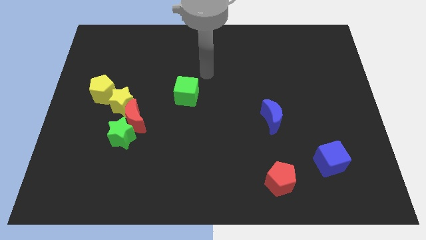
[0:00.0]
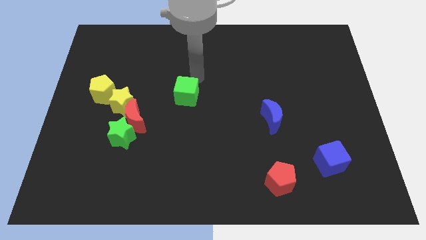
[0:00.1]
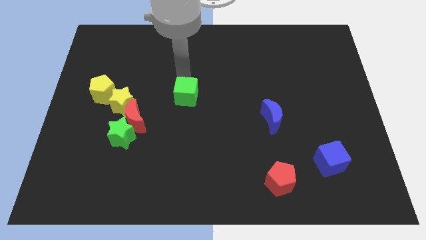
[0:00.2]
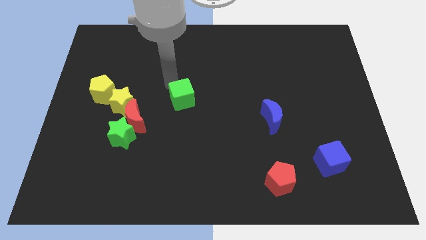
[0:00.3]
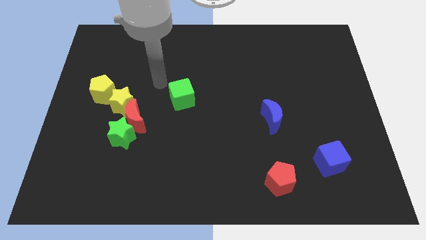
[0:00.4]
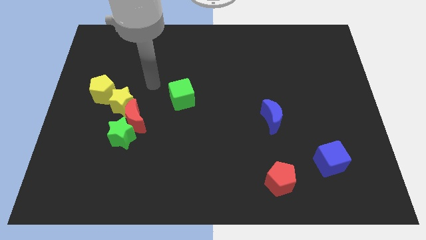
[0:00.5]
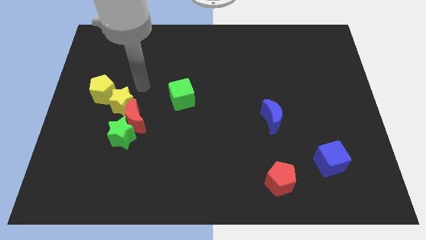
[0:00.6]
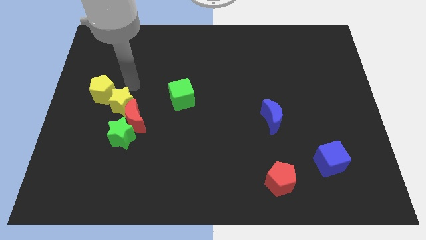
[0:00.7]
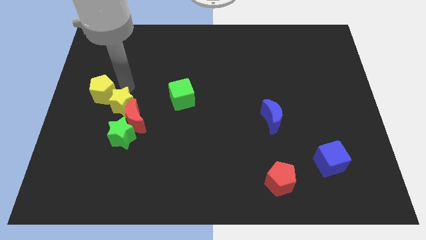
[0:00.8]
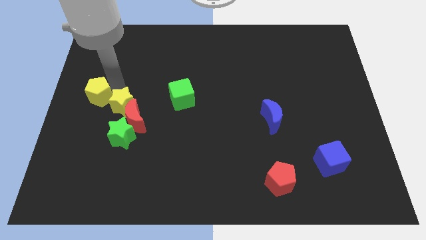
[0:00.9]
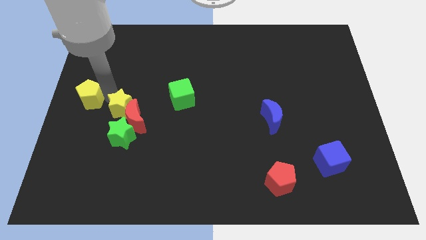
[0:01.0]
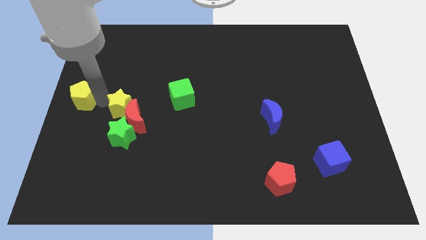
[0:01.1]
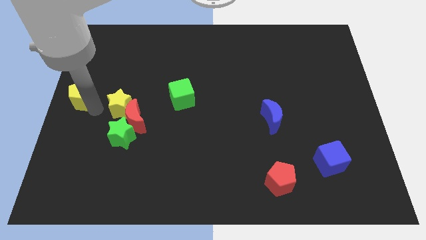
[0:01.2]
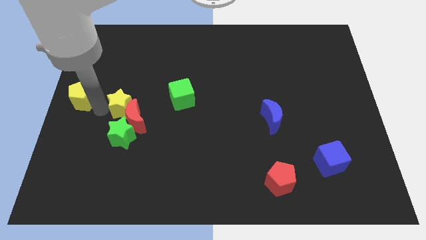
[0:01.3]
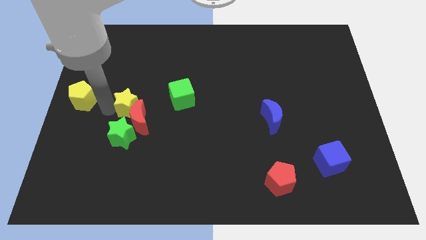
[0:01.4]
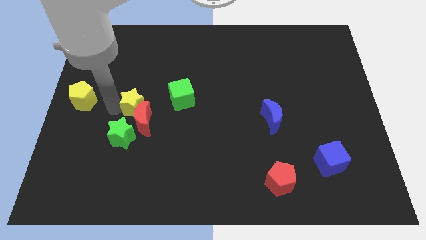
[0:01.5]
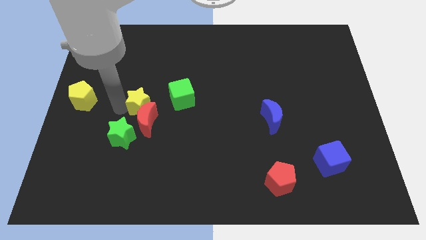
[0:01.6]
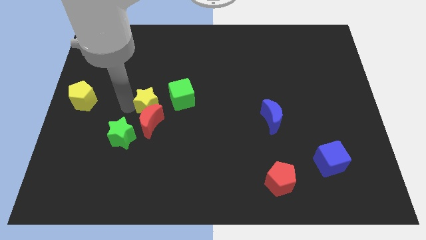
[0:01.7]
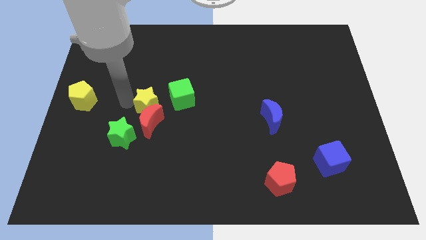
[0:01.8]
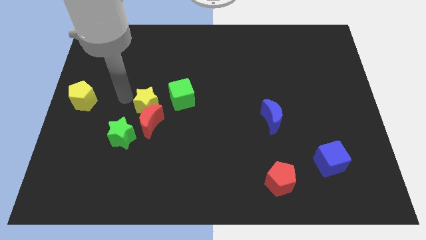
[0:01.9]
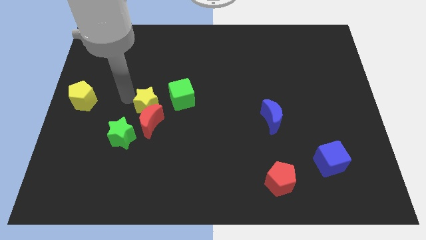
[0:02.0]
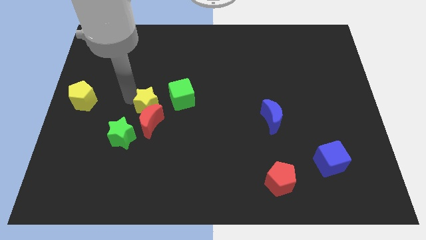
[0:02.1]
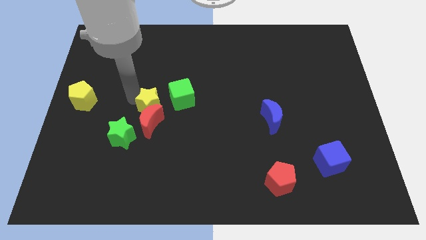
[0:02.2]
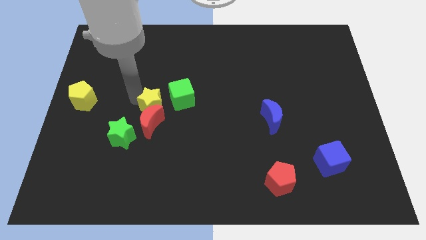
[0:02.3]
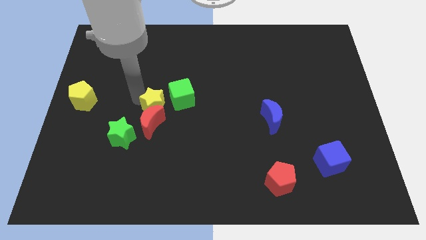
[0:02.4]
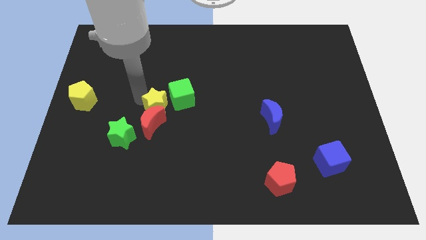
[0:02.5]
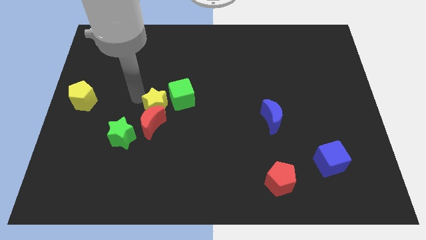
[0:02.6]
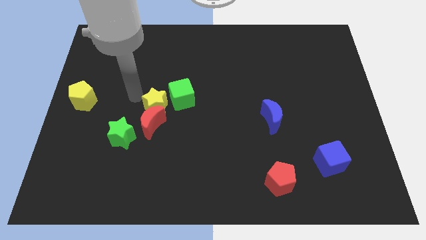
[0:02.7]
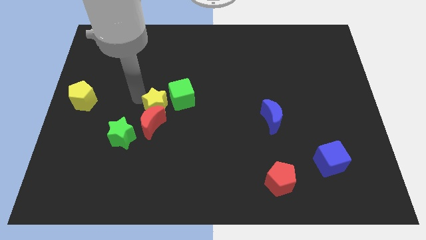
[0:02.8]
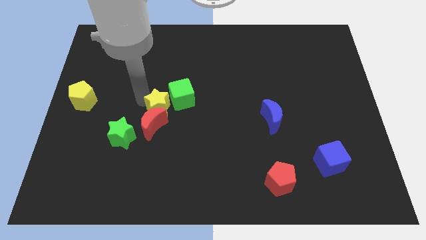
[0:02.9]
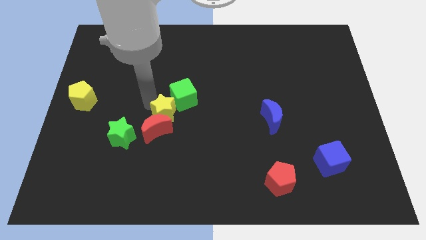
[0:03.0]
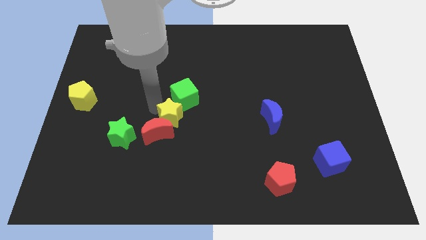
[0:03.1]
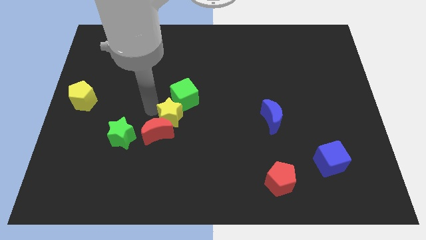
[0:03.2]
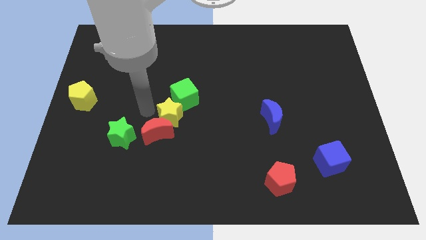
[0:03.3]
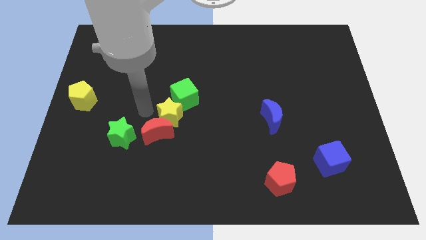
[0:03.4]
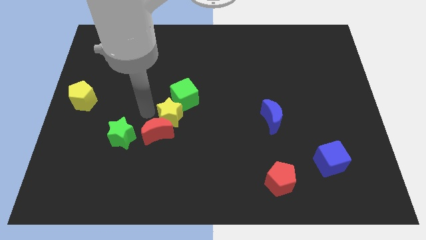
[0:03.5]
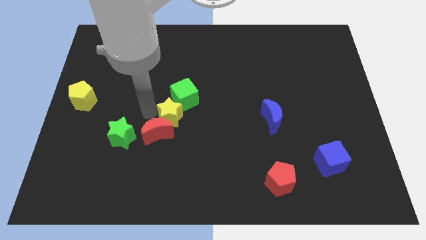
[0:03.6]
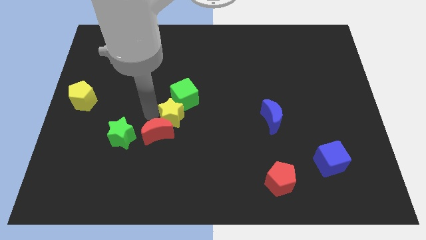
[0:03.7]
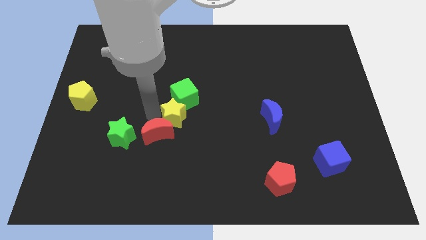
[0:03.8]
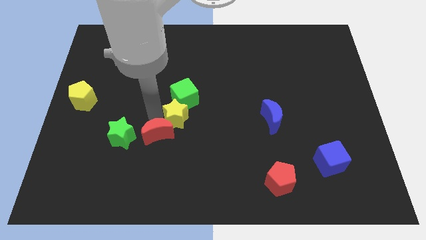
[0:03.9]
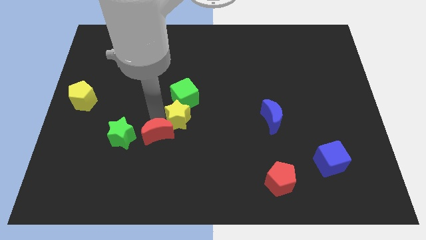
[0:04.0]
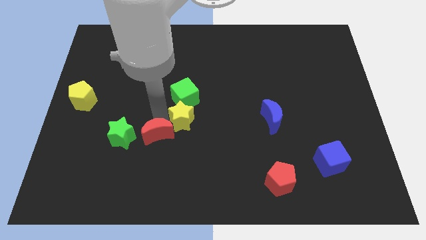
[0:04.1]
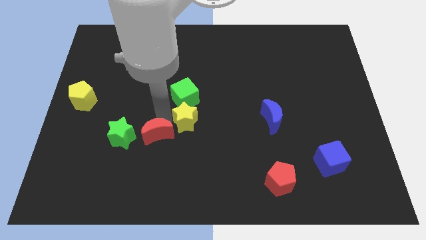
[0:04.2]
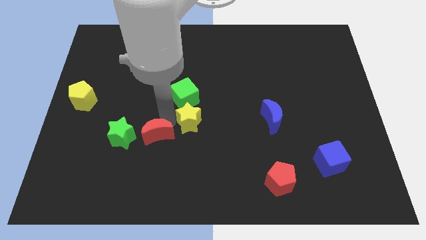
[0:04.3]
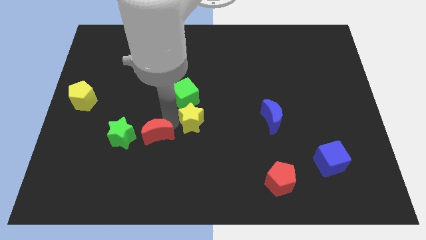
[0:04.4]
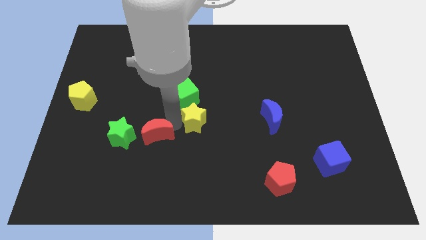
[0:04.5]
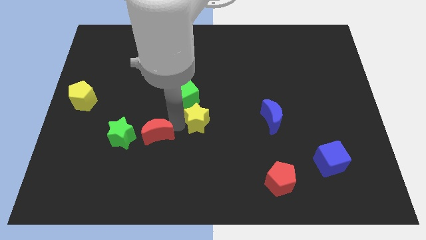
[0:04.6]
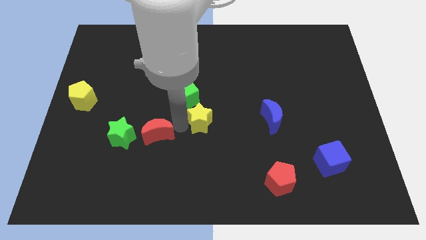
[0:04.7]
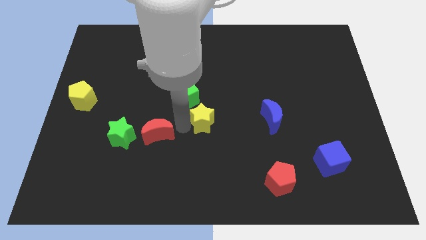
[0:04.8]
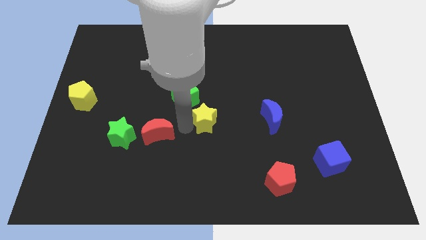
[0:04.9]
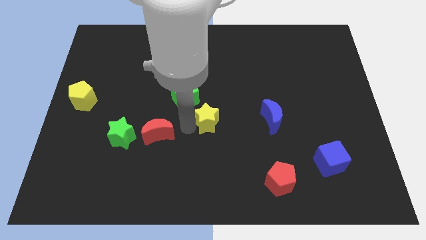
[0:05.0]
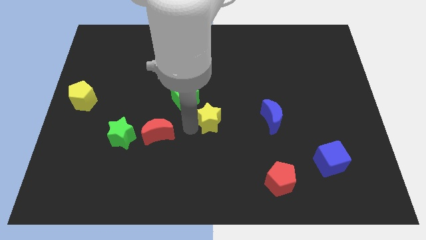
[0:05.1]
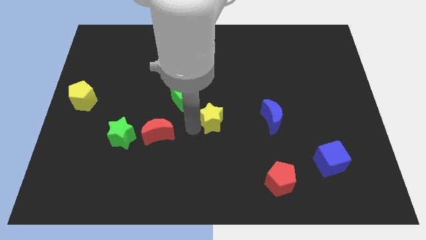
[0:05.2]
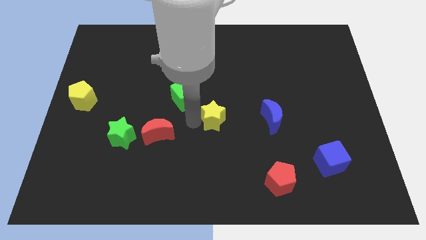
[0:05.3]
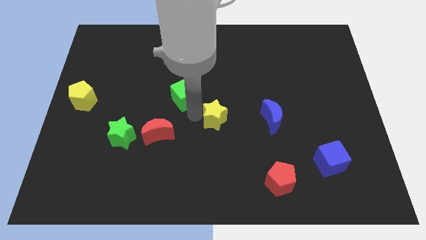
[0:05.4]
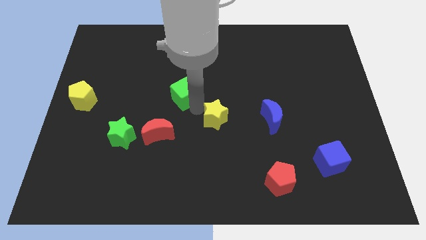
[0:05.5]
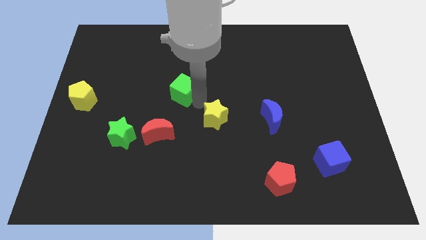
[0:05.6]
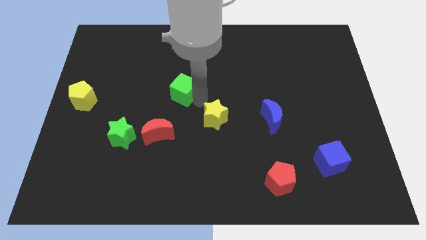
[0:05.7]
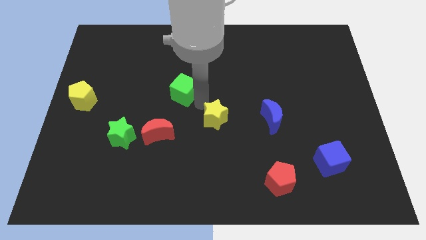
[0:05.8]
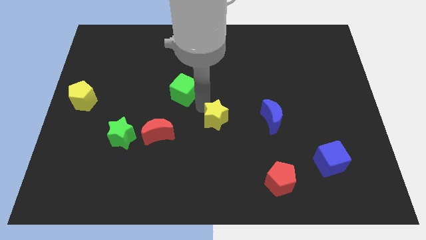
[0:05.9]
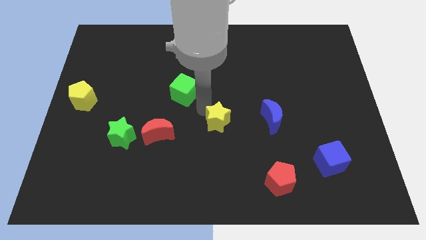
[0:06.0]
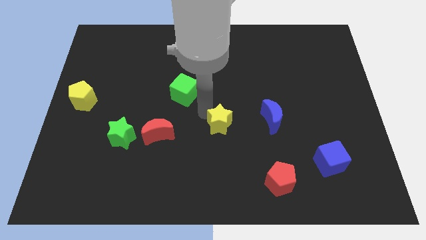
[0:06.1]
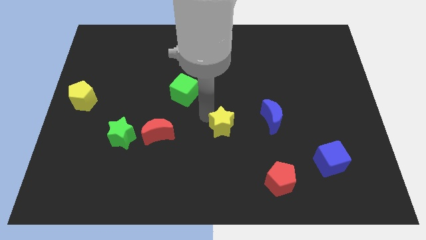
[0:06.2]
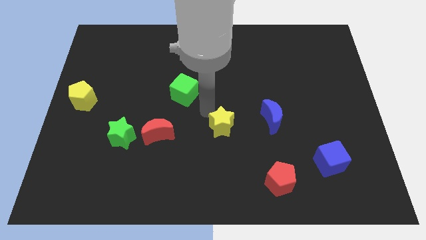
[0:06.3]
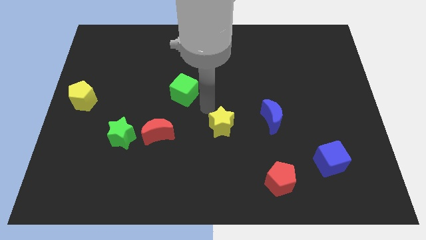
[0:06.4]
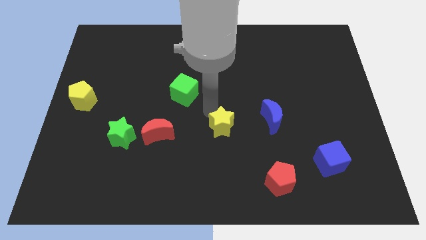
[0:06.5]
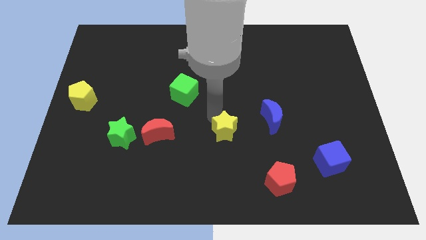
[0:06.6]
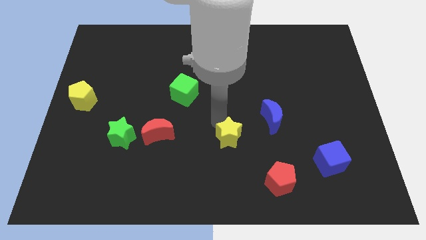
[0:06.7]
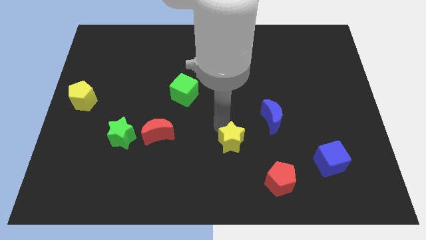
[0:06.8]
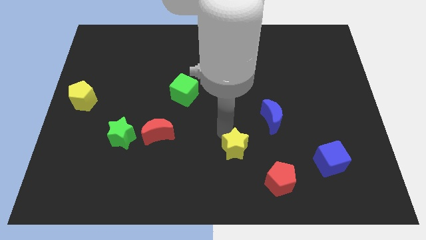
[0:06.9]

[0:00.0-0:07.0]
move the yellow star to the top left side of the red pentagon

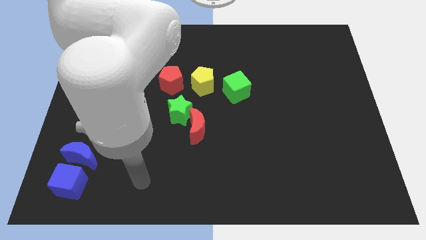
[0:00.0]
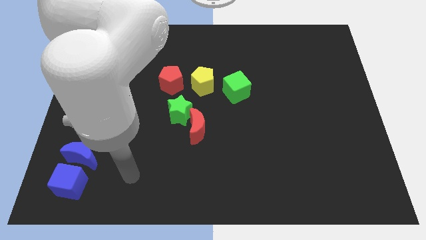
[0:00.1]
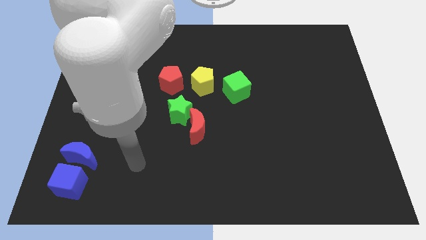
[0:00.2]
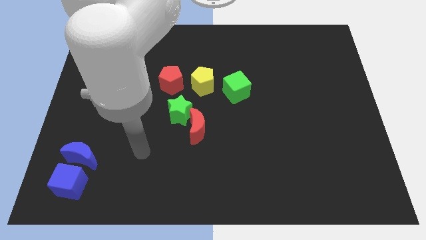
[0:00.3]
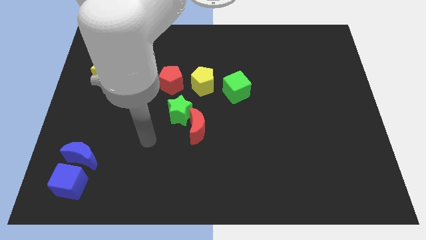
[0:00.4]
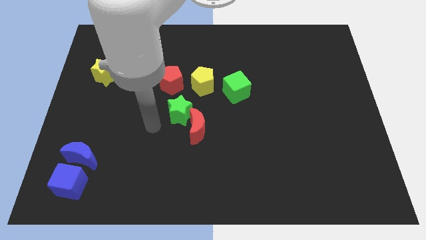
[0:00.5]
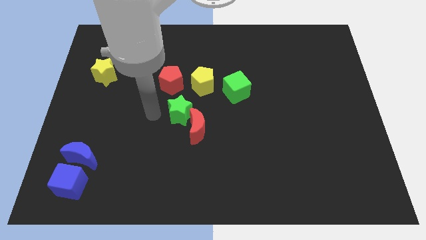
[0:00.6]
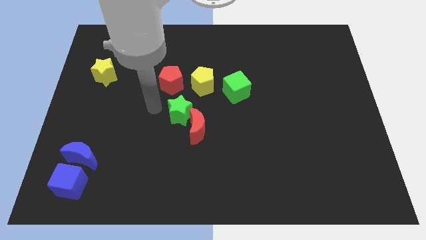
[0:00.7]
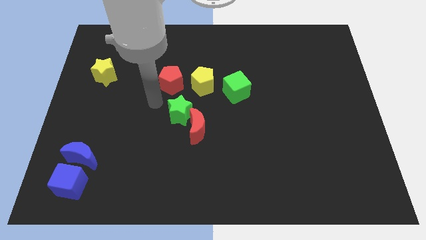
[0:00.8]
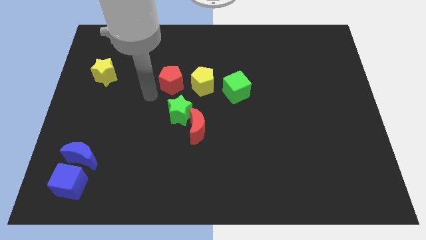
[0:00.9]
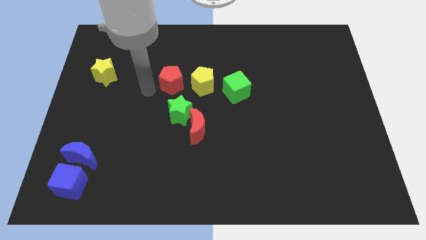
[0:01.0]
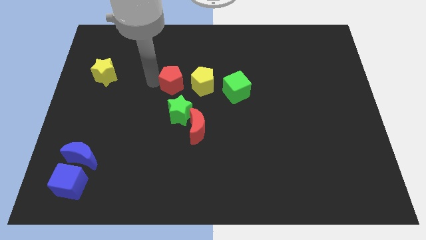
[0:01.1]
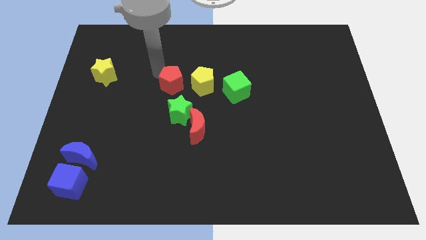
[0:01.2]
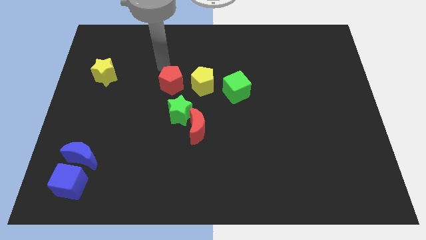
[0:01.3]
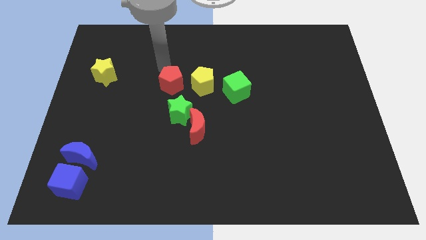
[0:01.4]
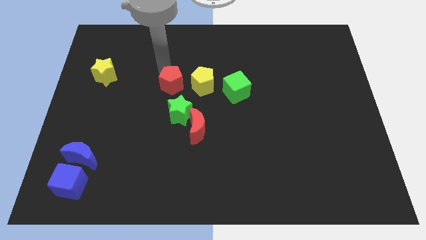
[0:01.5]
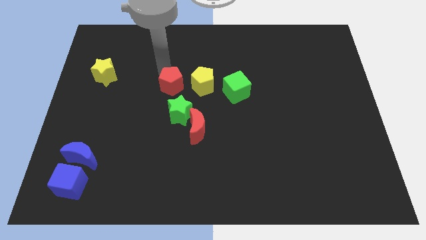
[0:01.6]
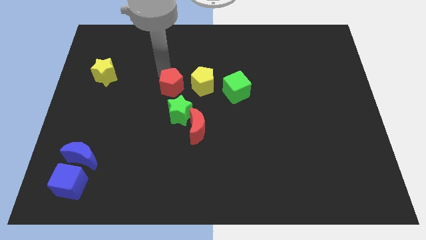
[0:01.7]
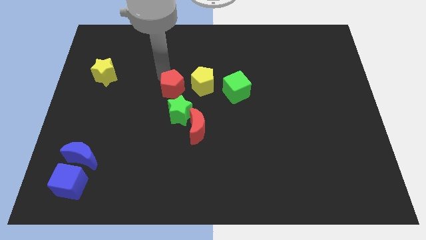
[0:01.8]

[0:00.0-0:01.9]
put the red pentagon to the bottom left side of the yellow pentagon
